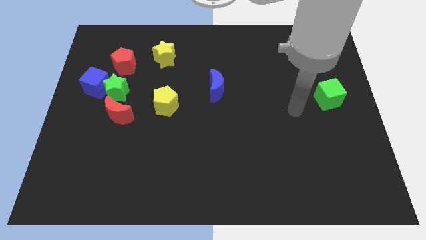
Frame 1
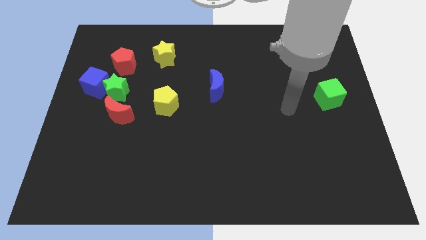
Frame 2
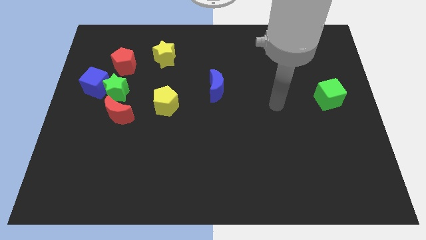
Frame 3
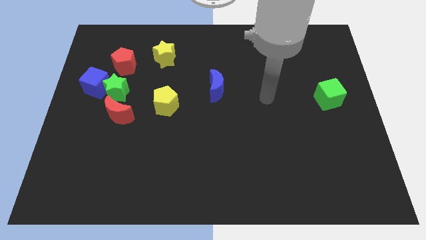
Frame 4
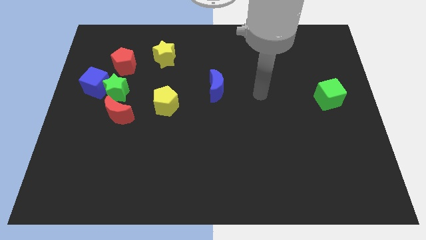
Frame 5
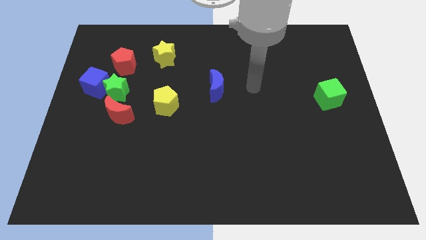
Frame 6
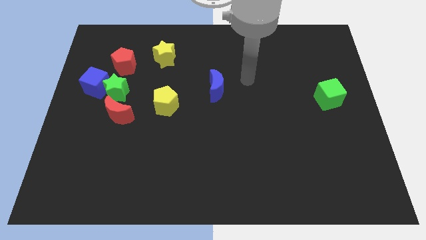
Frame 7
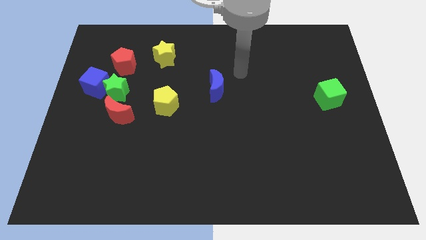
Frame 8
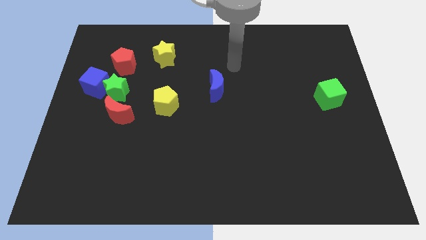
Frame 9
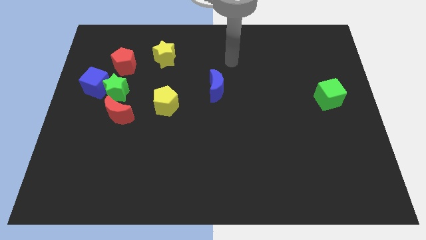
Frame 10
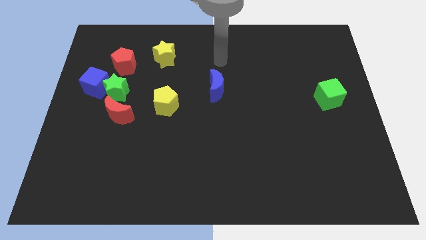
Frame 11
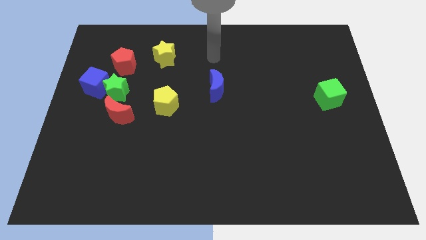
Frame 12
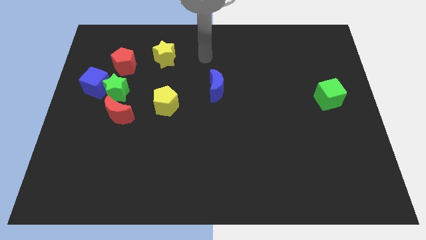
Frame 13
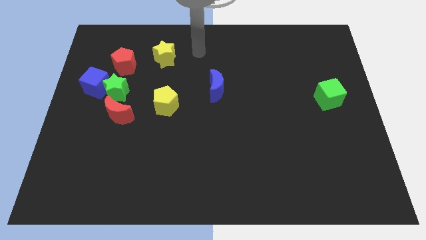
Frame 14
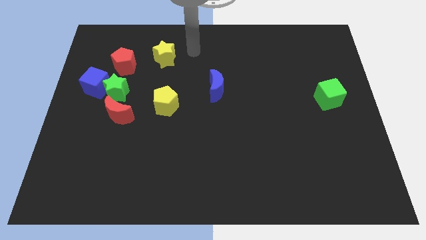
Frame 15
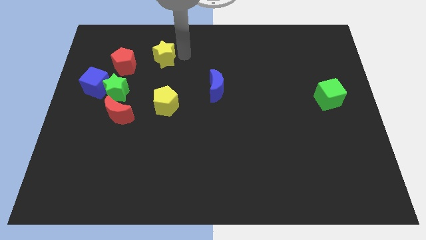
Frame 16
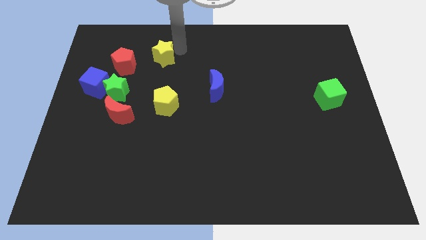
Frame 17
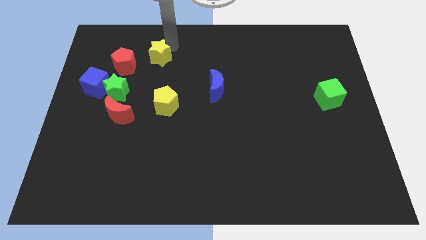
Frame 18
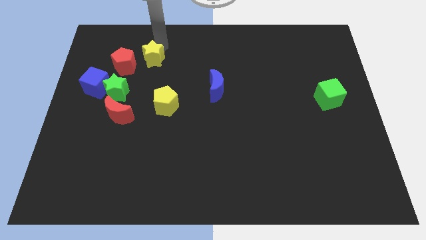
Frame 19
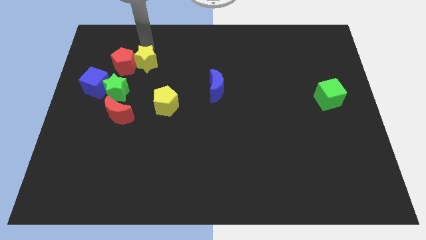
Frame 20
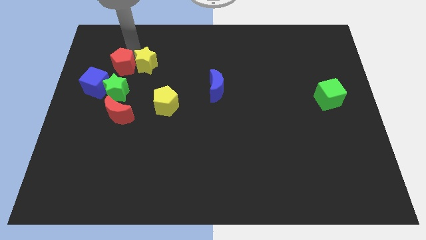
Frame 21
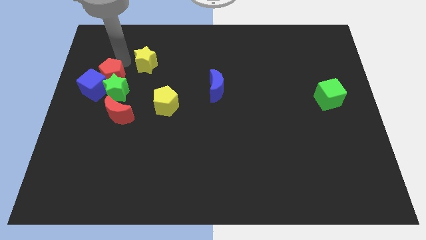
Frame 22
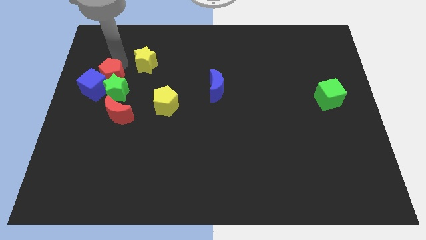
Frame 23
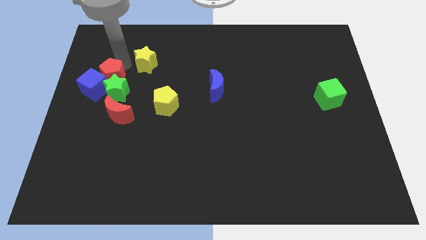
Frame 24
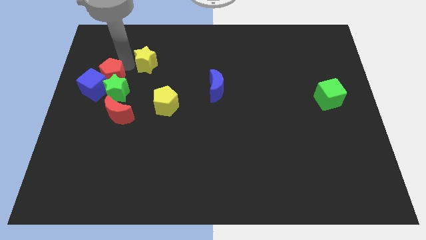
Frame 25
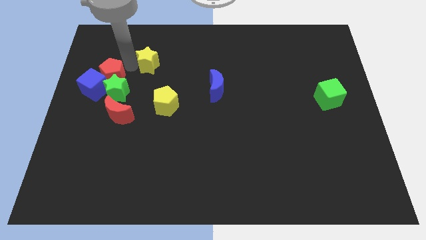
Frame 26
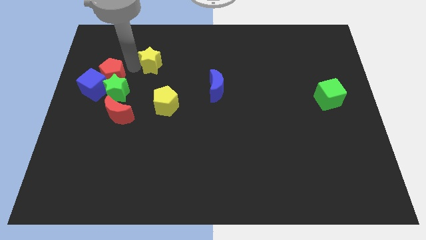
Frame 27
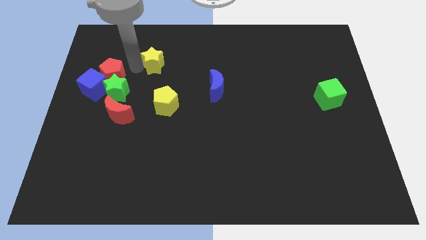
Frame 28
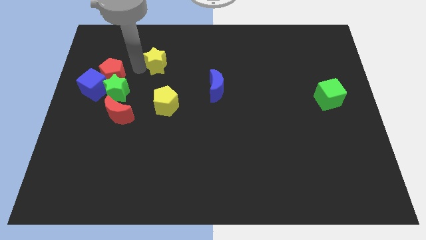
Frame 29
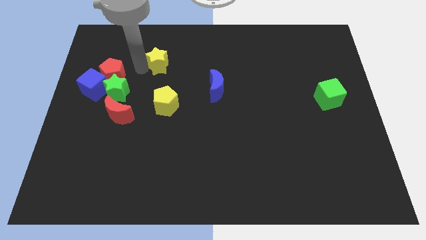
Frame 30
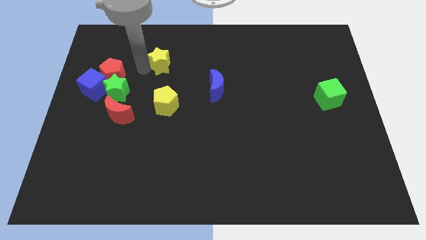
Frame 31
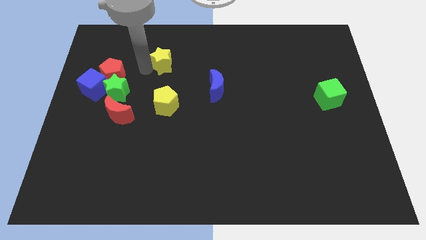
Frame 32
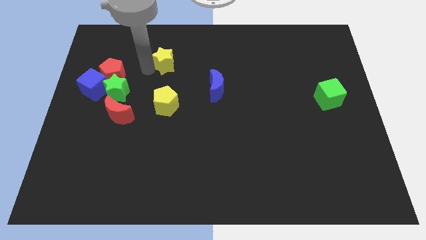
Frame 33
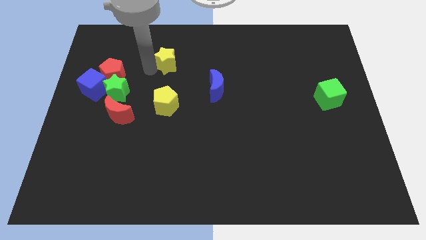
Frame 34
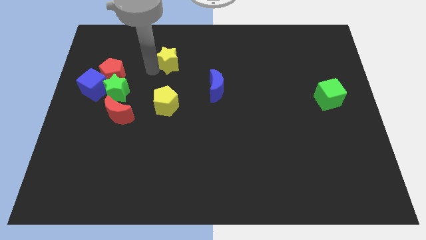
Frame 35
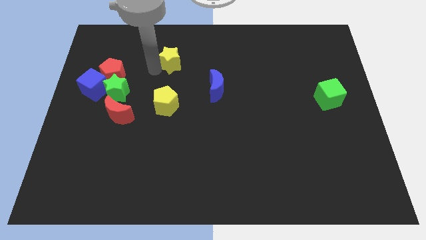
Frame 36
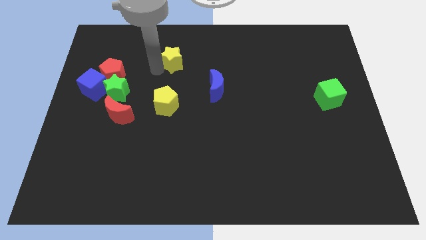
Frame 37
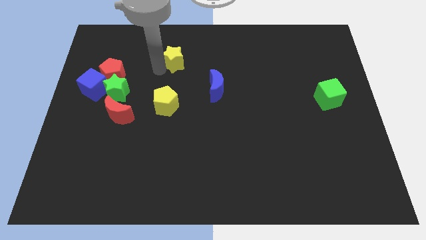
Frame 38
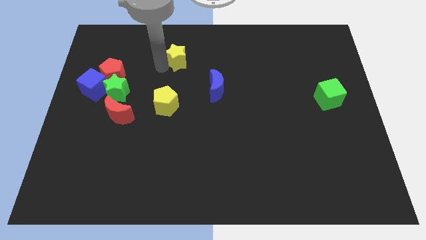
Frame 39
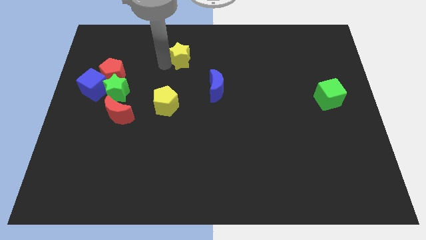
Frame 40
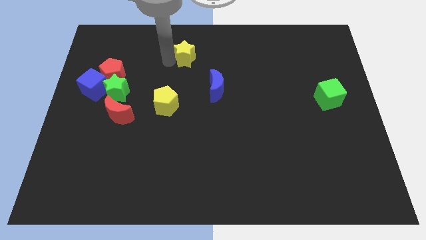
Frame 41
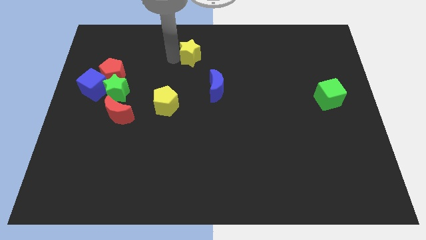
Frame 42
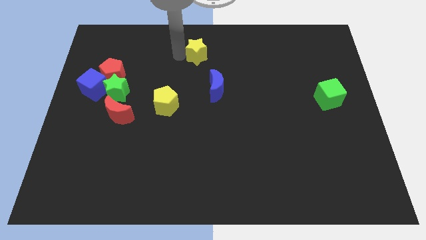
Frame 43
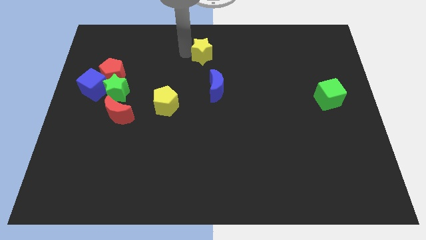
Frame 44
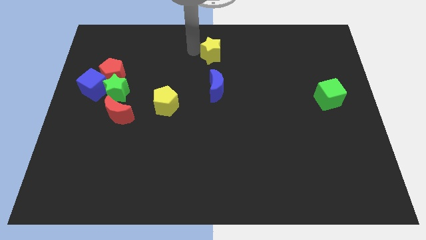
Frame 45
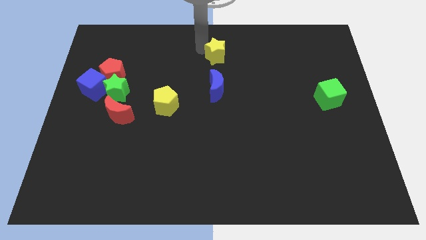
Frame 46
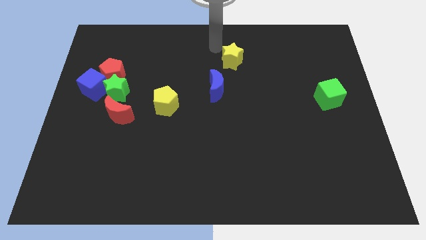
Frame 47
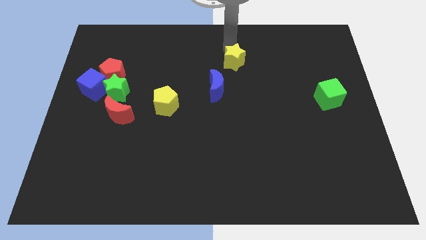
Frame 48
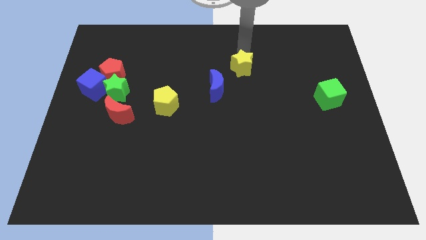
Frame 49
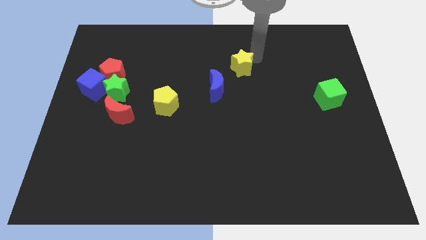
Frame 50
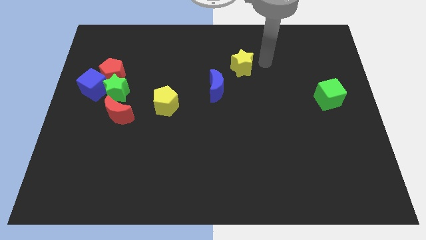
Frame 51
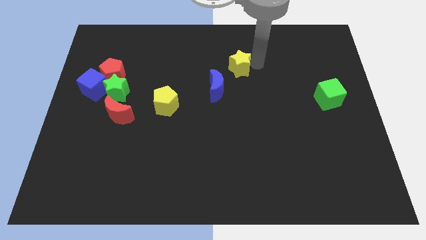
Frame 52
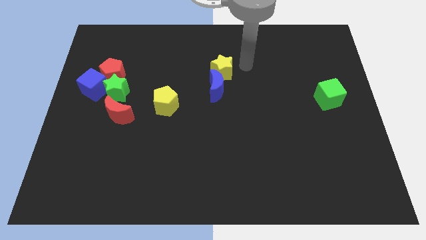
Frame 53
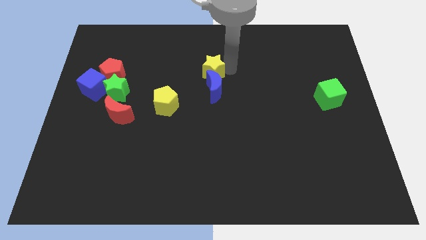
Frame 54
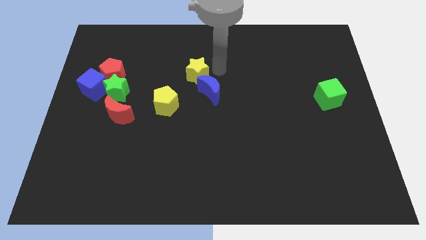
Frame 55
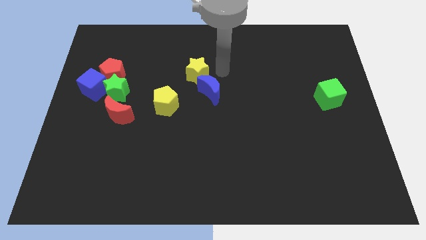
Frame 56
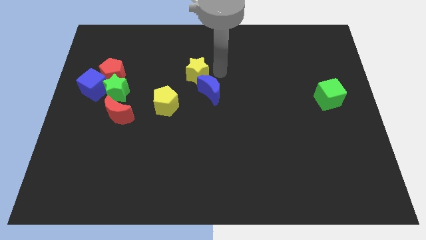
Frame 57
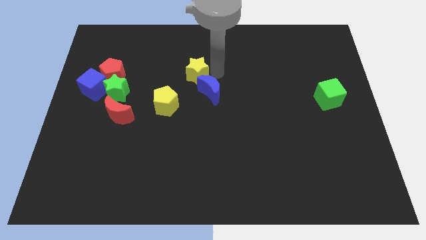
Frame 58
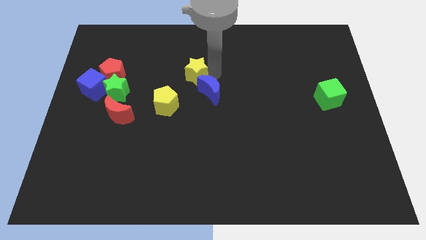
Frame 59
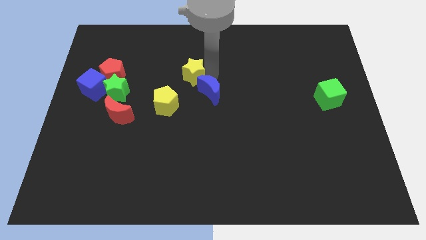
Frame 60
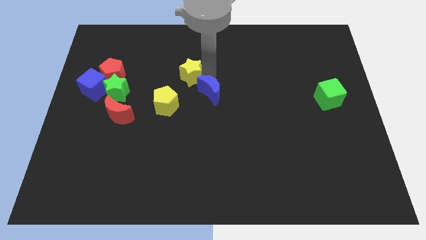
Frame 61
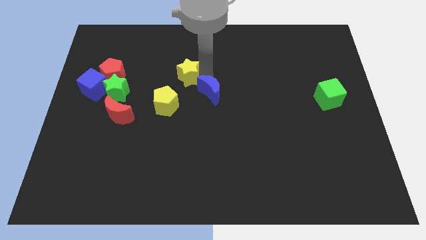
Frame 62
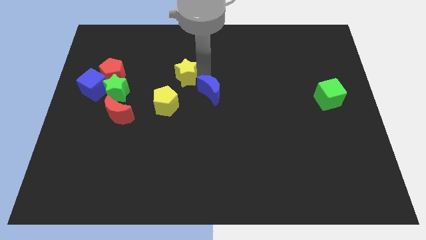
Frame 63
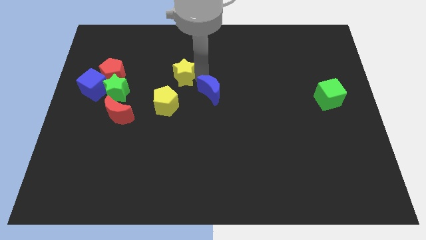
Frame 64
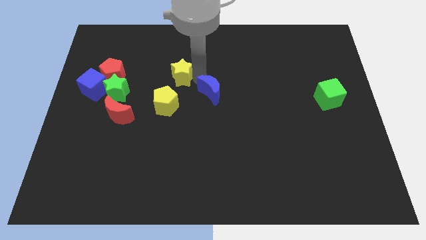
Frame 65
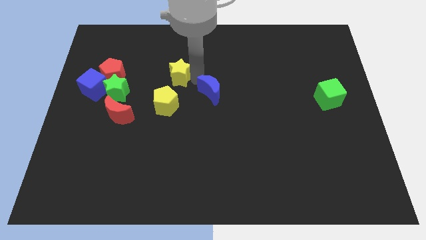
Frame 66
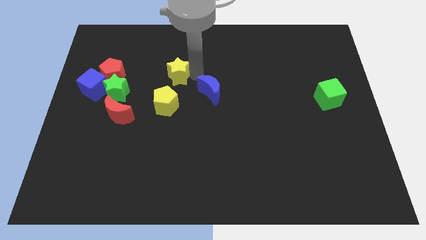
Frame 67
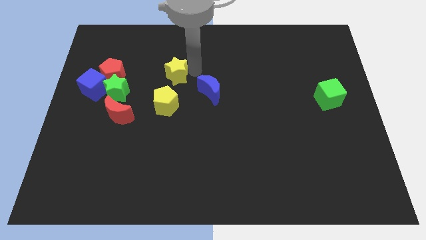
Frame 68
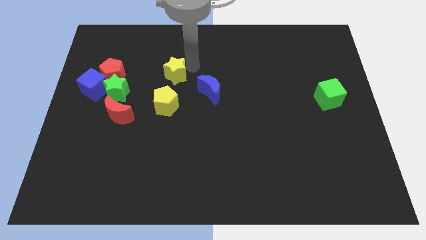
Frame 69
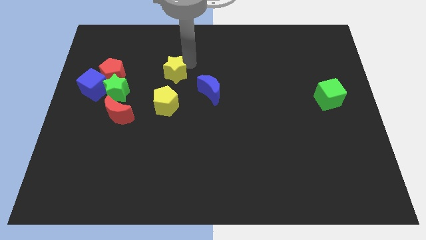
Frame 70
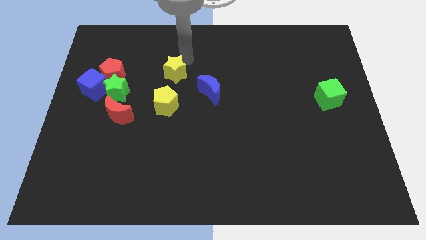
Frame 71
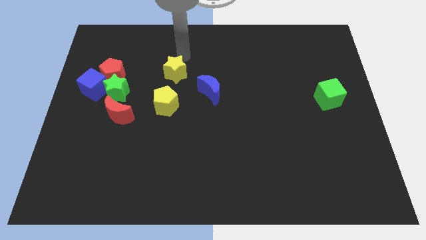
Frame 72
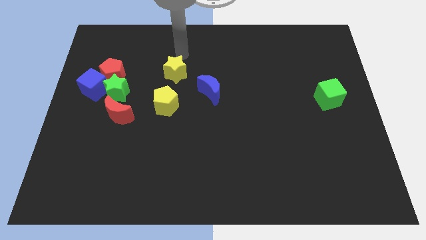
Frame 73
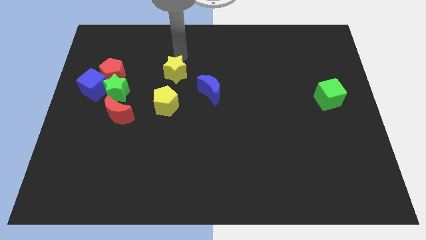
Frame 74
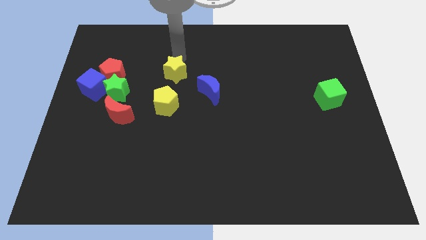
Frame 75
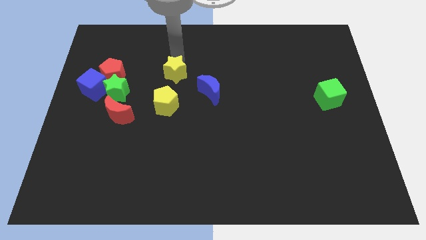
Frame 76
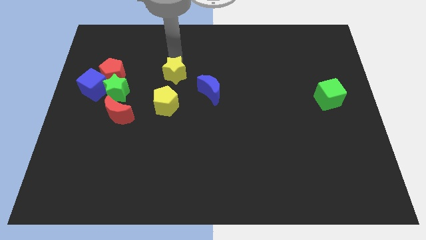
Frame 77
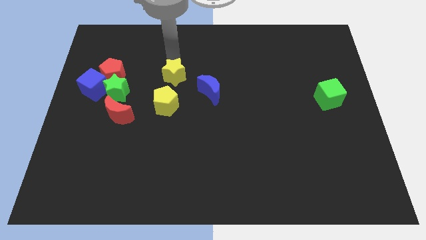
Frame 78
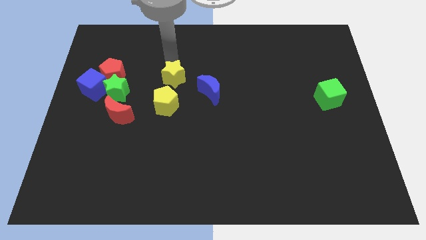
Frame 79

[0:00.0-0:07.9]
move the yellow star left of the blue moon

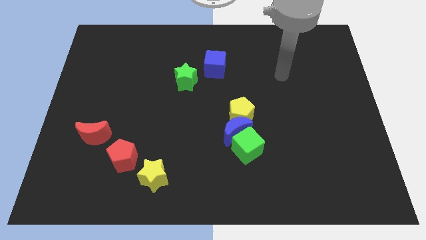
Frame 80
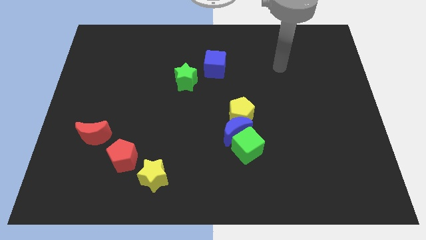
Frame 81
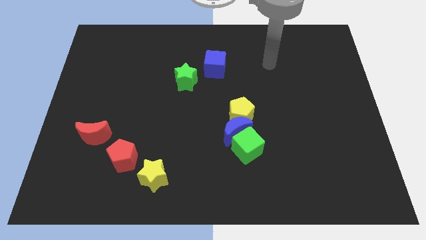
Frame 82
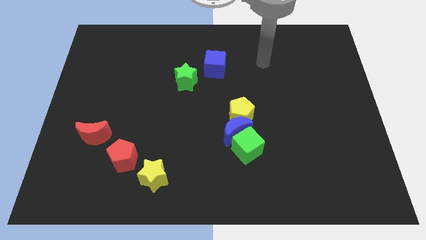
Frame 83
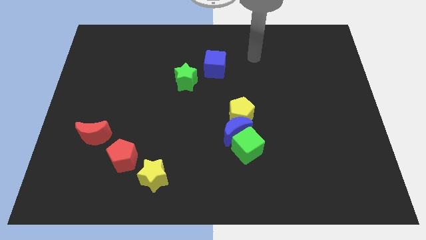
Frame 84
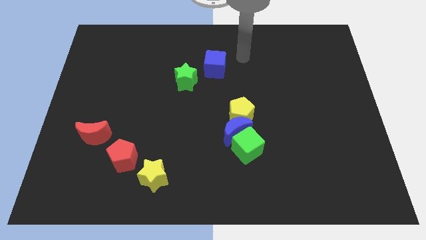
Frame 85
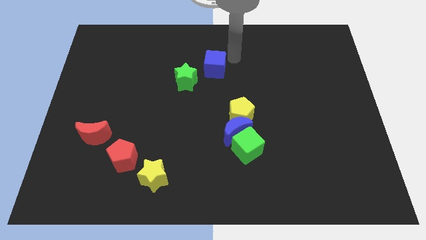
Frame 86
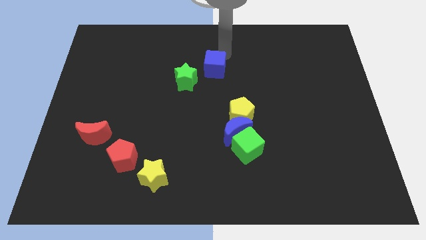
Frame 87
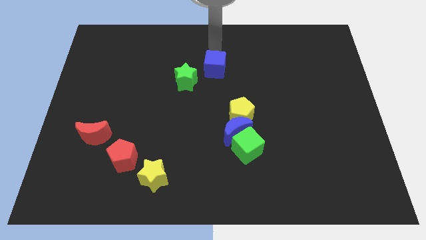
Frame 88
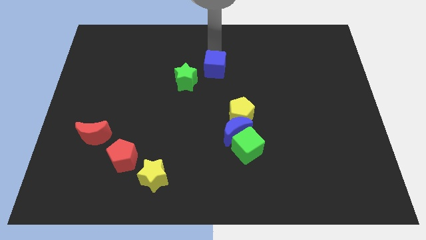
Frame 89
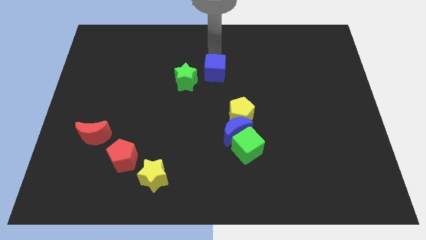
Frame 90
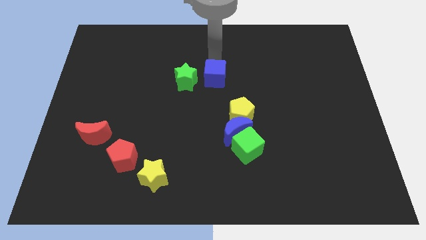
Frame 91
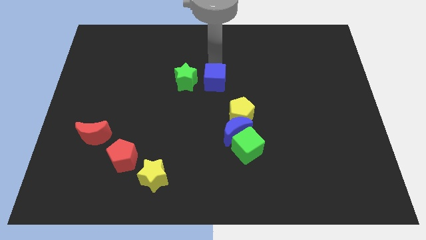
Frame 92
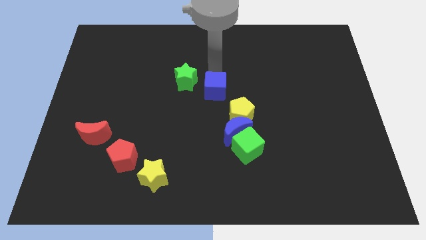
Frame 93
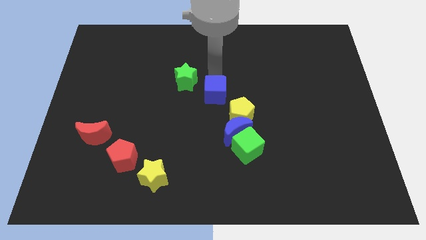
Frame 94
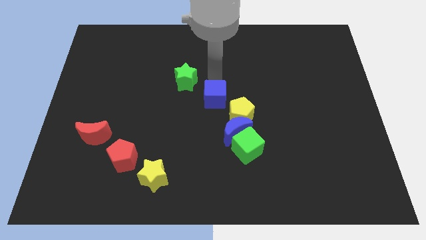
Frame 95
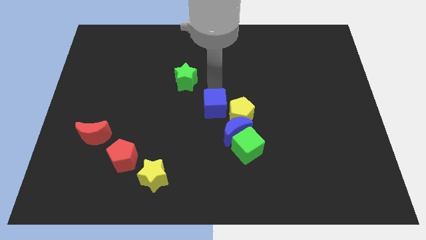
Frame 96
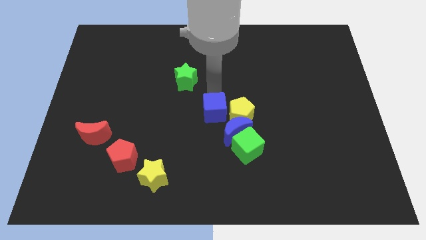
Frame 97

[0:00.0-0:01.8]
move the blue cube diagonally up and to the left of the green cube
